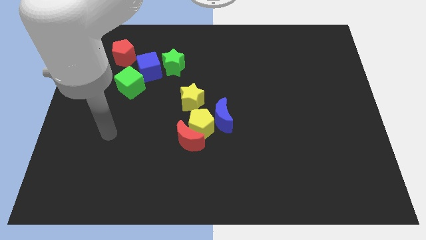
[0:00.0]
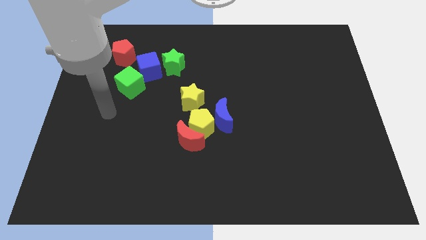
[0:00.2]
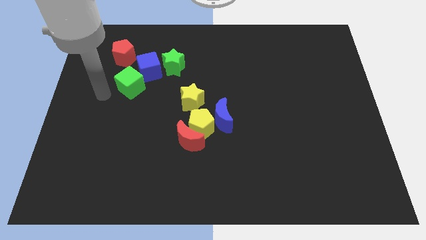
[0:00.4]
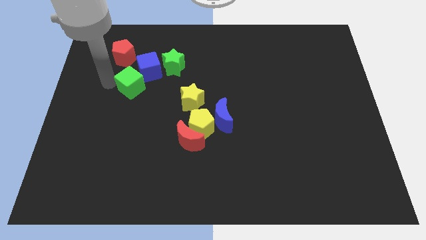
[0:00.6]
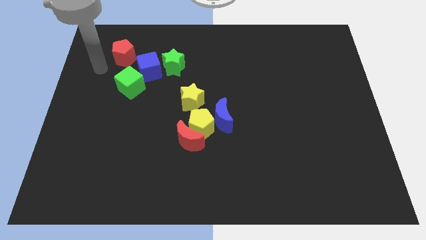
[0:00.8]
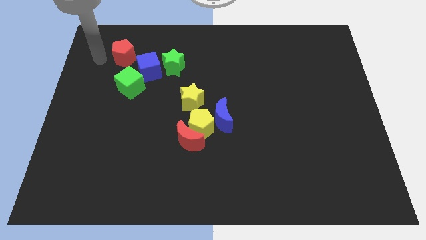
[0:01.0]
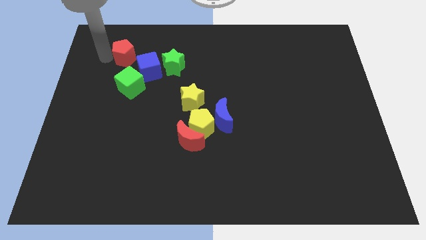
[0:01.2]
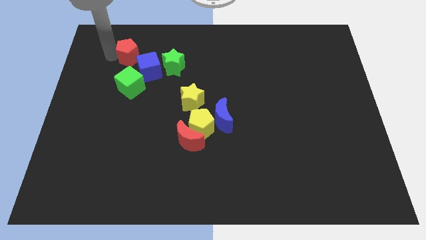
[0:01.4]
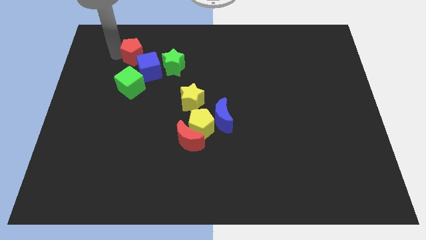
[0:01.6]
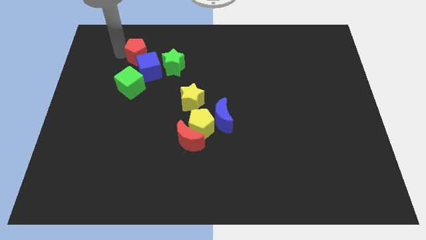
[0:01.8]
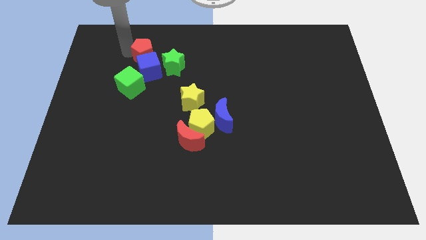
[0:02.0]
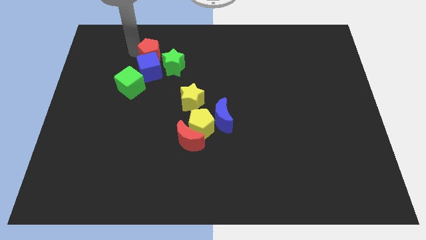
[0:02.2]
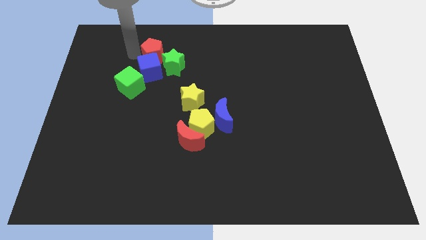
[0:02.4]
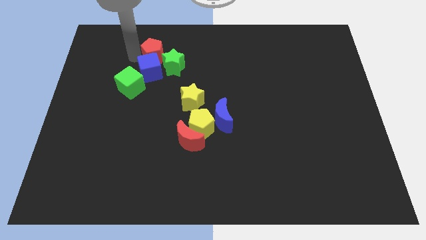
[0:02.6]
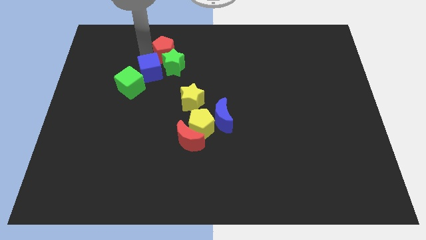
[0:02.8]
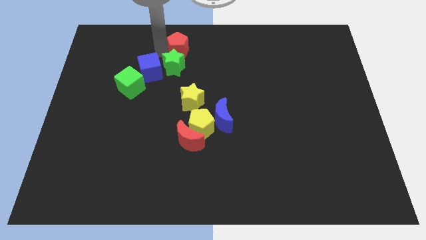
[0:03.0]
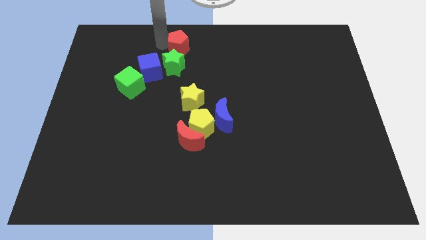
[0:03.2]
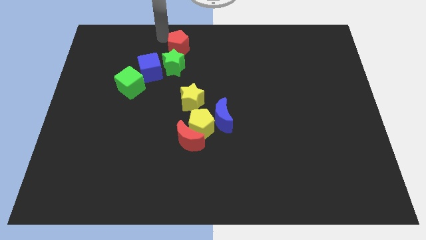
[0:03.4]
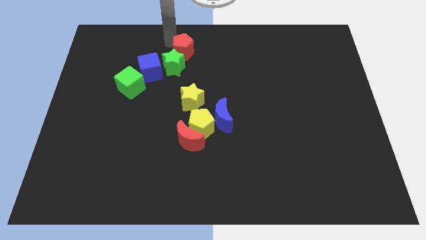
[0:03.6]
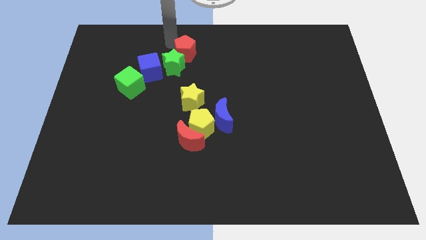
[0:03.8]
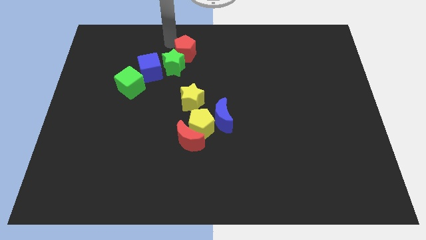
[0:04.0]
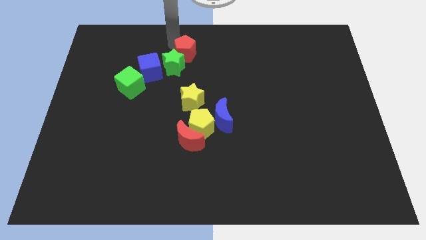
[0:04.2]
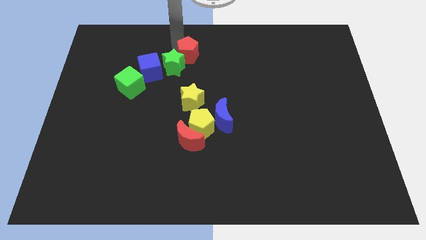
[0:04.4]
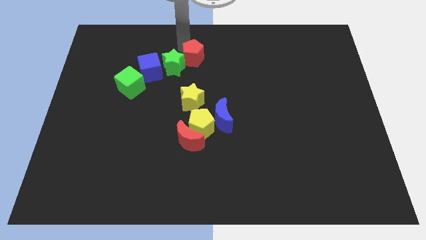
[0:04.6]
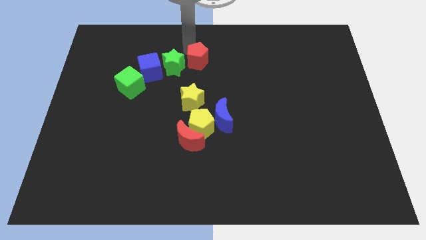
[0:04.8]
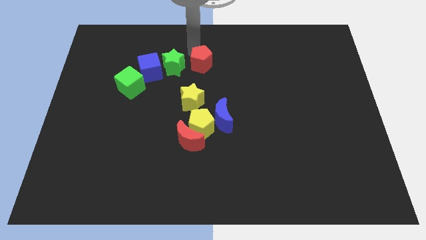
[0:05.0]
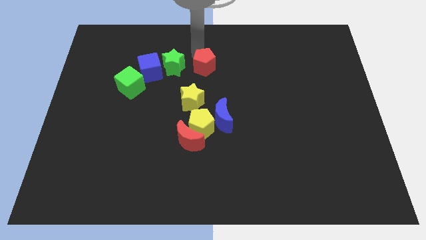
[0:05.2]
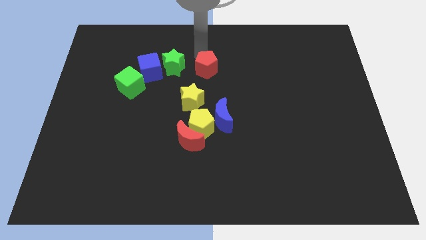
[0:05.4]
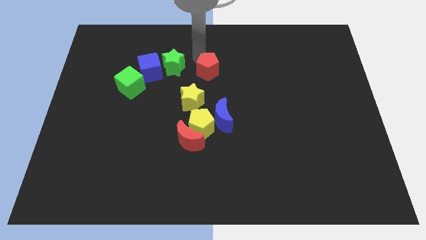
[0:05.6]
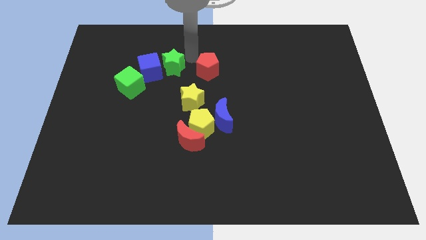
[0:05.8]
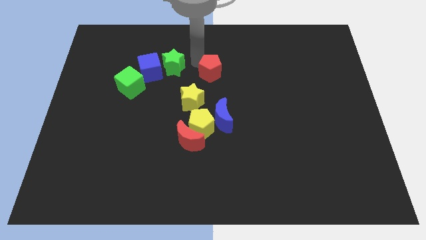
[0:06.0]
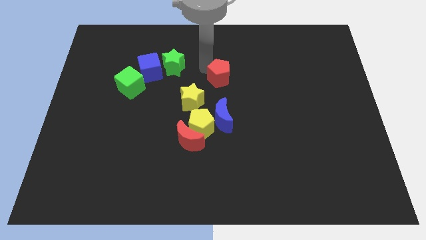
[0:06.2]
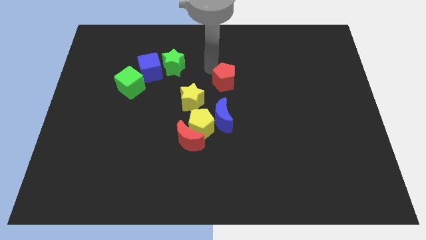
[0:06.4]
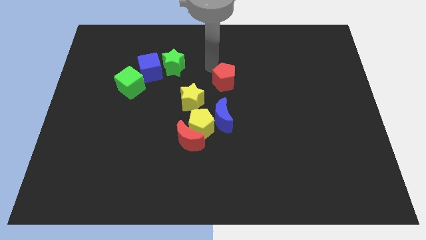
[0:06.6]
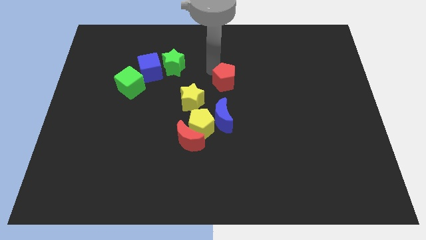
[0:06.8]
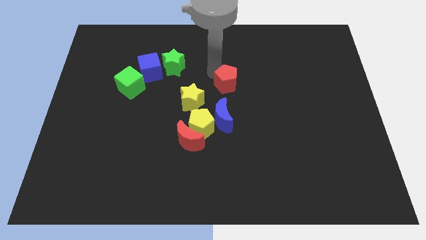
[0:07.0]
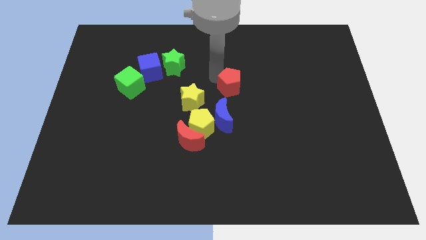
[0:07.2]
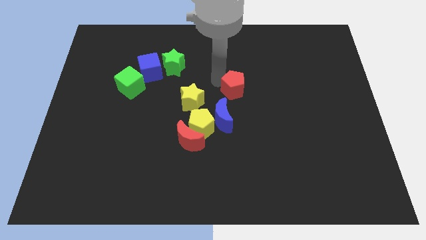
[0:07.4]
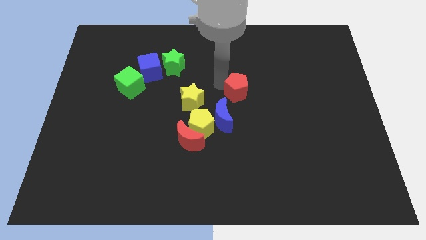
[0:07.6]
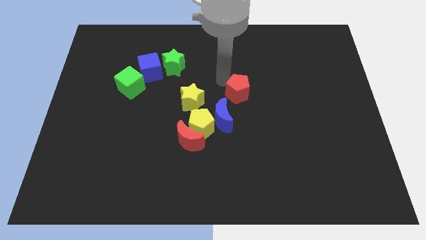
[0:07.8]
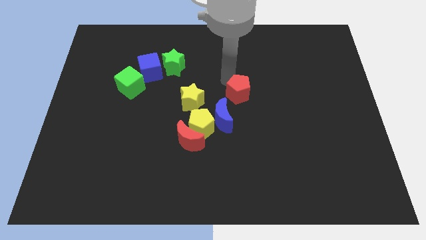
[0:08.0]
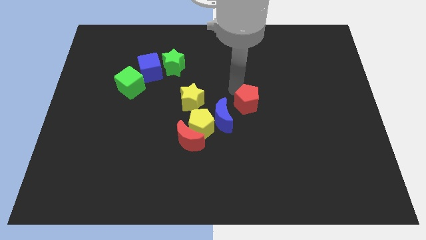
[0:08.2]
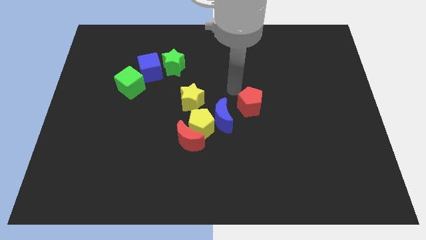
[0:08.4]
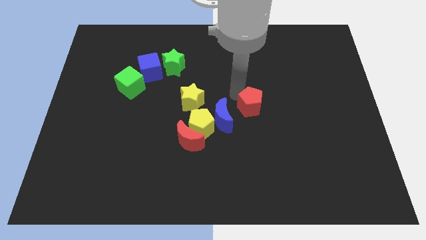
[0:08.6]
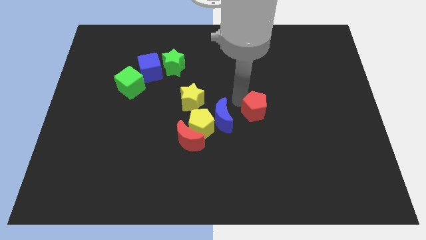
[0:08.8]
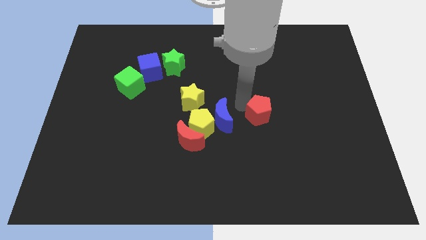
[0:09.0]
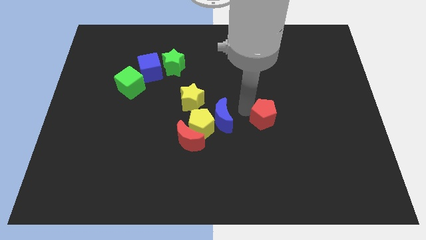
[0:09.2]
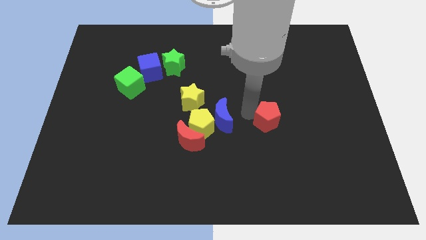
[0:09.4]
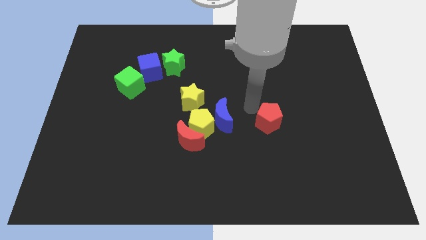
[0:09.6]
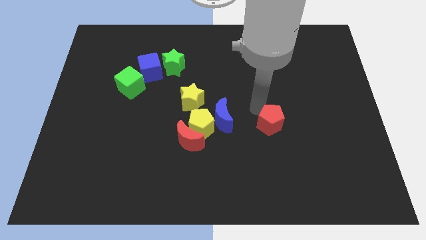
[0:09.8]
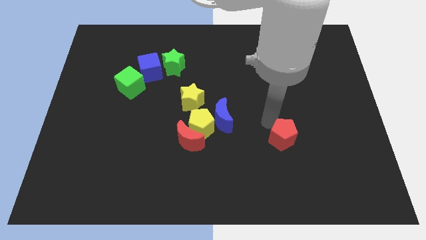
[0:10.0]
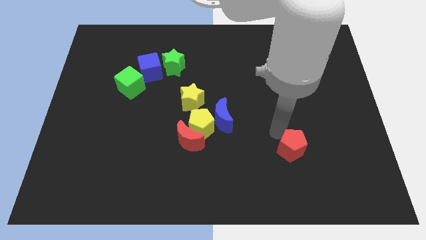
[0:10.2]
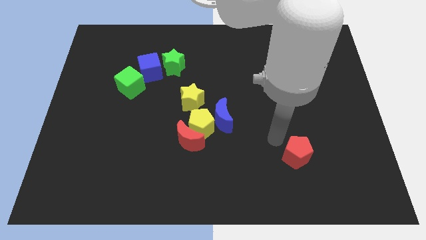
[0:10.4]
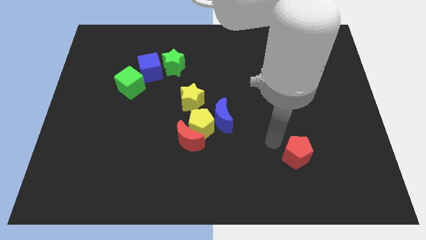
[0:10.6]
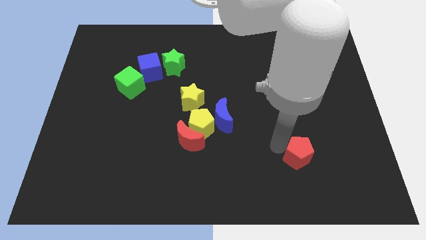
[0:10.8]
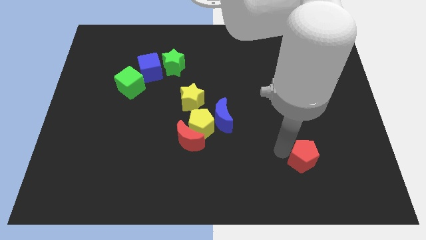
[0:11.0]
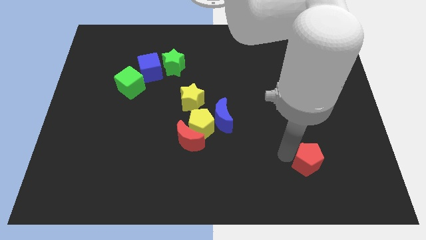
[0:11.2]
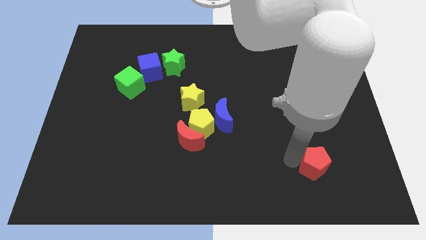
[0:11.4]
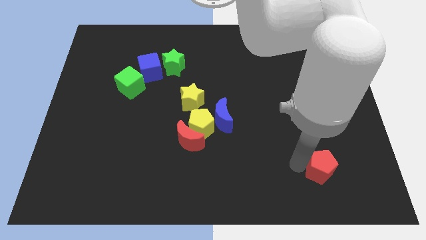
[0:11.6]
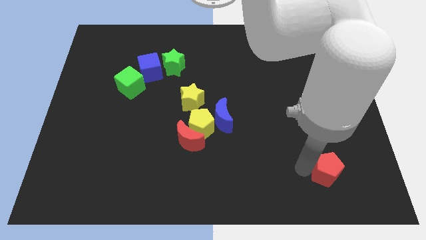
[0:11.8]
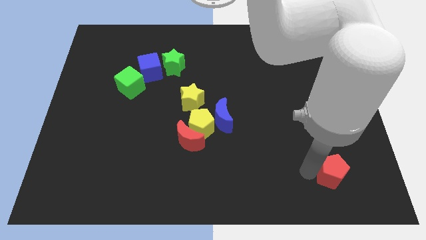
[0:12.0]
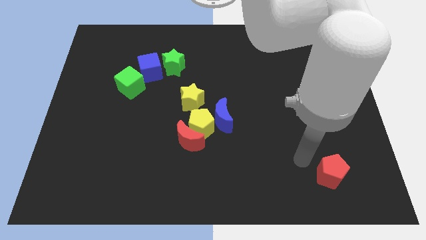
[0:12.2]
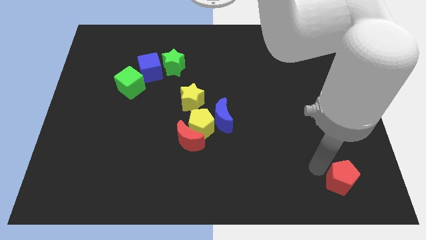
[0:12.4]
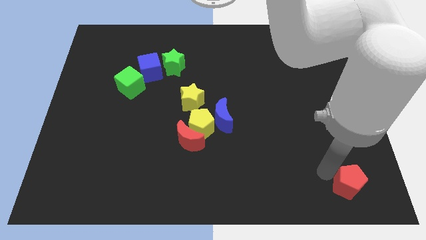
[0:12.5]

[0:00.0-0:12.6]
push the red pentagon to the bottom right of the board

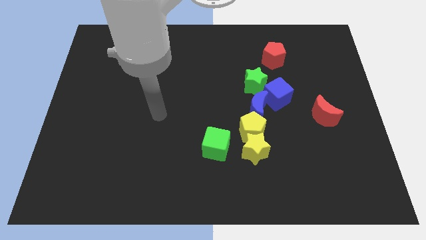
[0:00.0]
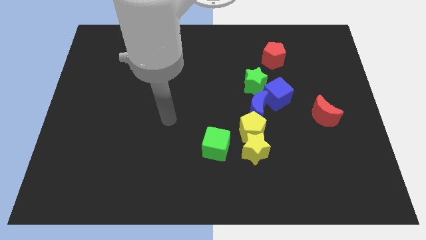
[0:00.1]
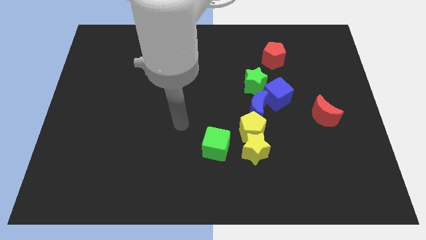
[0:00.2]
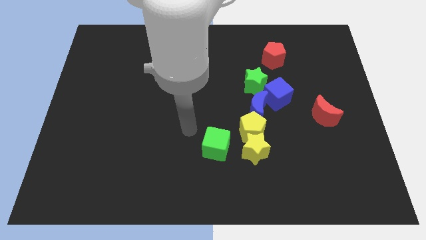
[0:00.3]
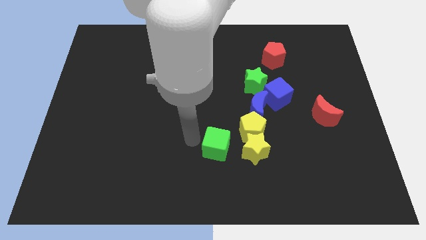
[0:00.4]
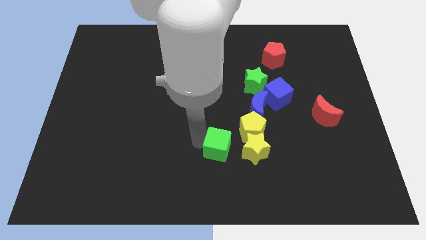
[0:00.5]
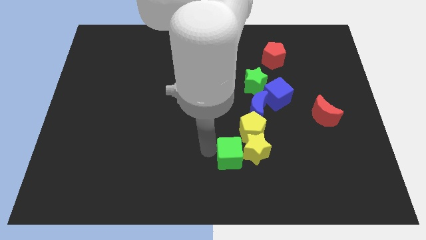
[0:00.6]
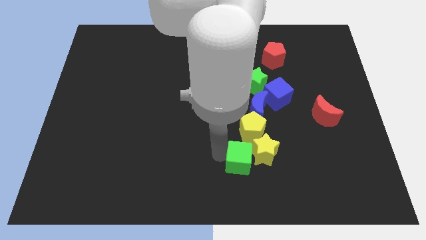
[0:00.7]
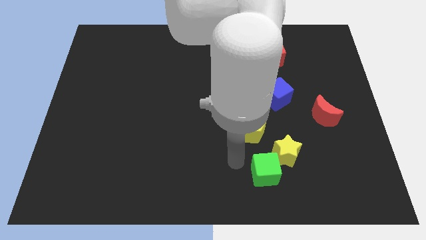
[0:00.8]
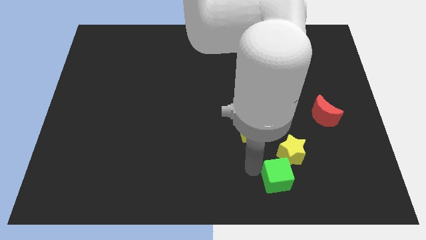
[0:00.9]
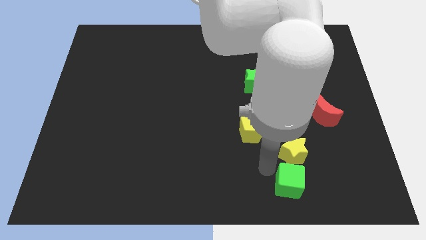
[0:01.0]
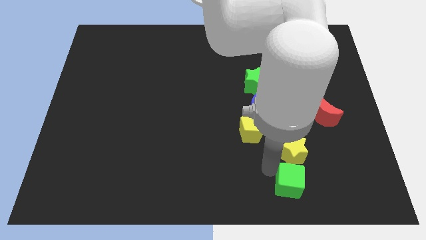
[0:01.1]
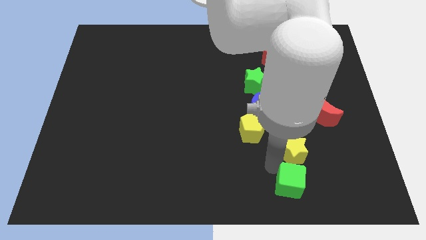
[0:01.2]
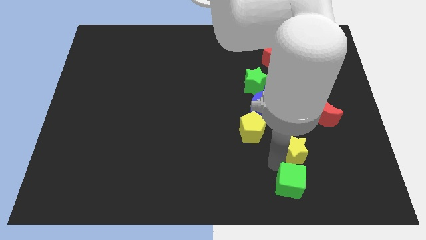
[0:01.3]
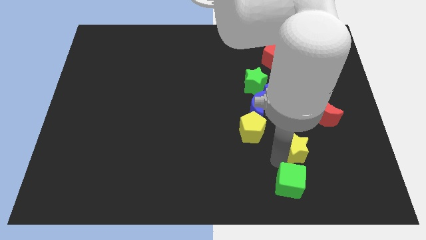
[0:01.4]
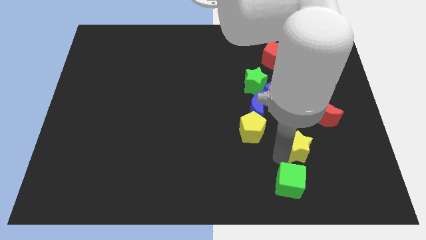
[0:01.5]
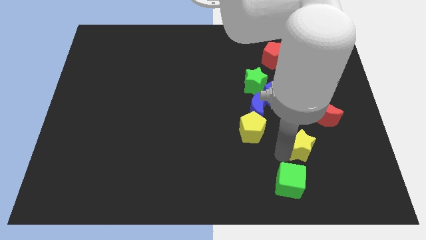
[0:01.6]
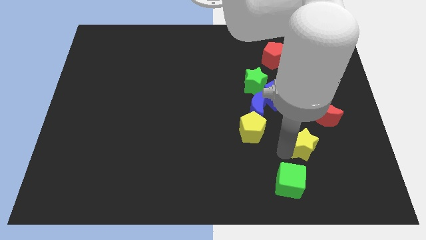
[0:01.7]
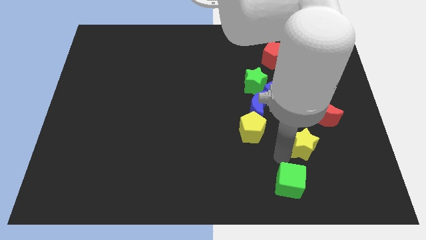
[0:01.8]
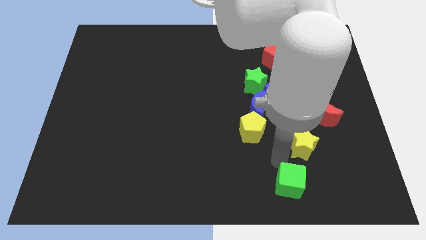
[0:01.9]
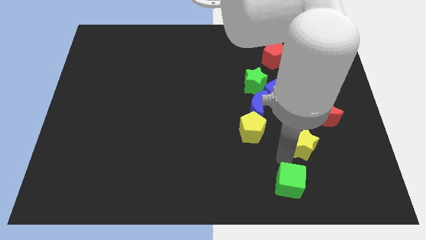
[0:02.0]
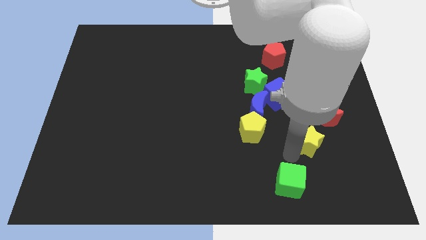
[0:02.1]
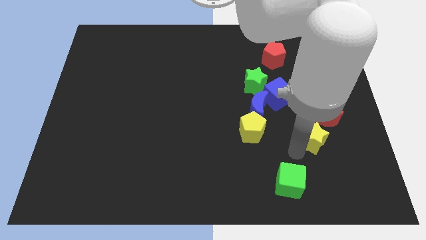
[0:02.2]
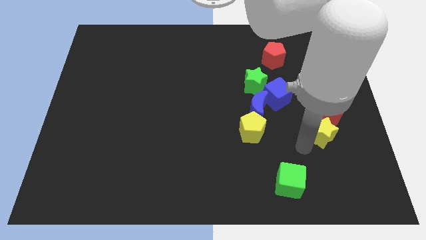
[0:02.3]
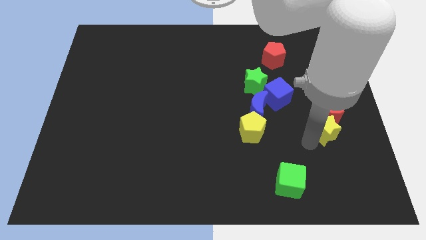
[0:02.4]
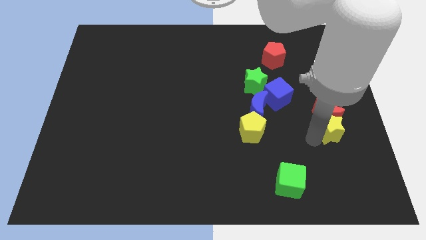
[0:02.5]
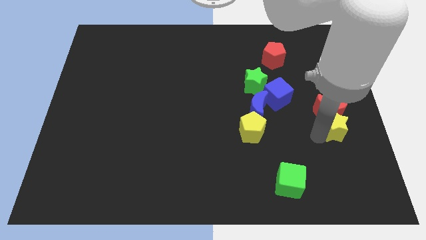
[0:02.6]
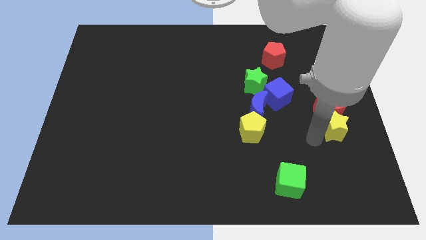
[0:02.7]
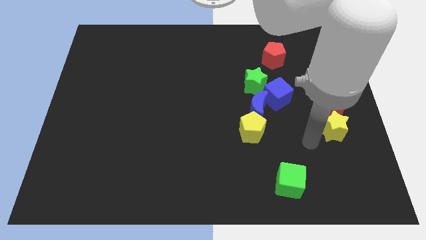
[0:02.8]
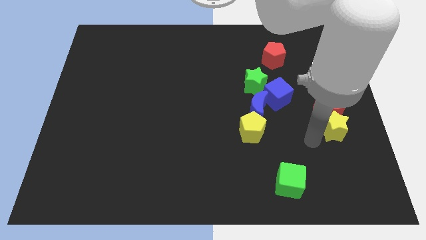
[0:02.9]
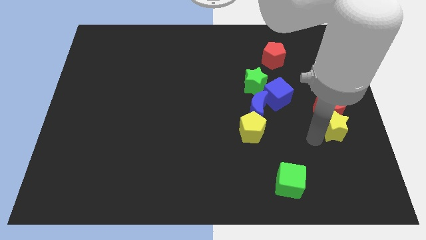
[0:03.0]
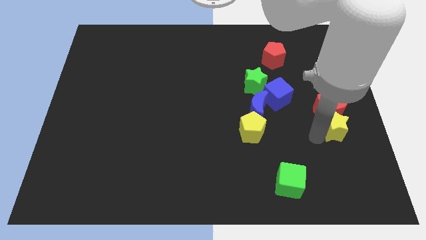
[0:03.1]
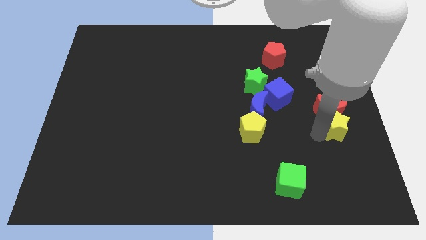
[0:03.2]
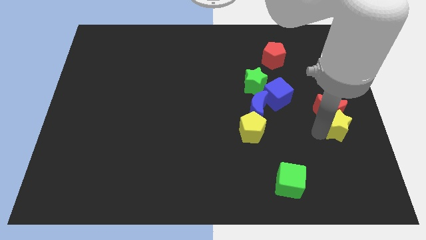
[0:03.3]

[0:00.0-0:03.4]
put the yellow star to the center right
